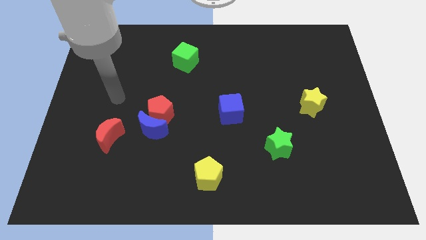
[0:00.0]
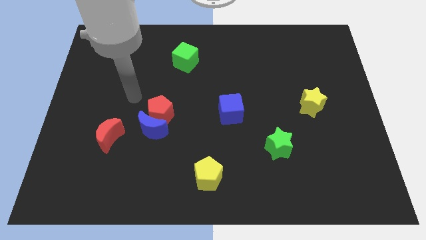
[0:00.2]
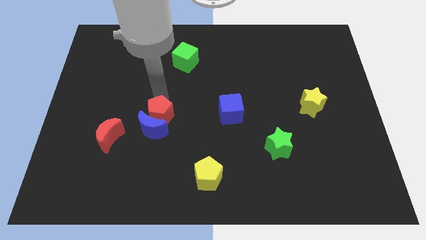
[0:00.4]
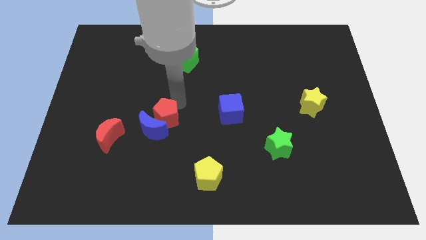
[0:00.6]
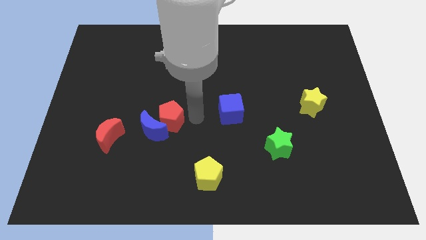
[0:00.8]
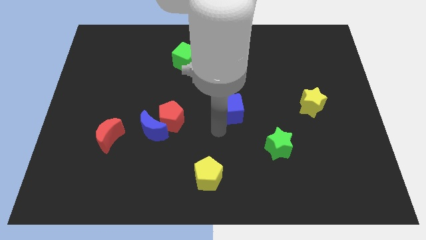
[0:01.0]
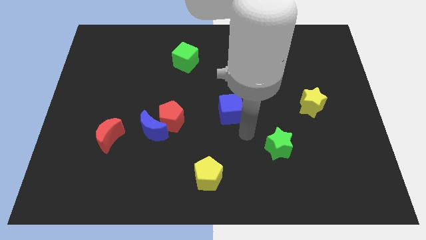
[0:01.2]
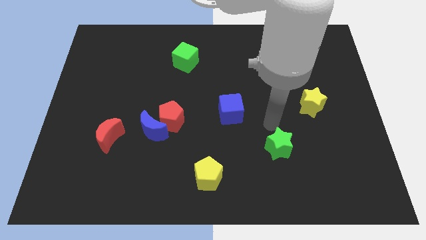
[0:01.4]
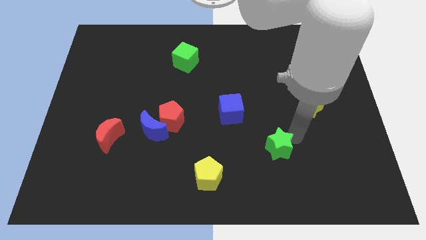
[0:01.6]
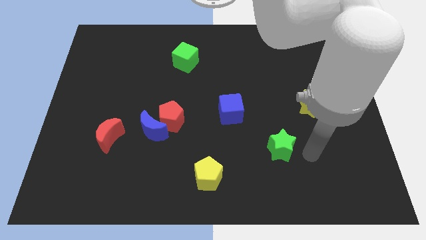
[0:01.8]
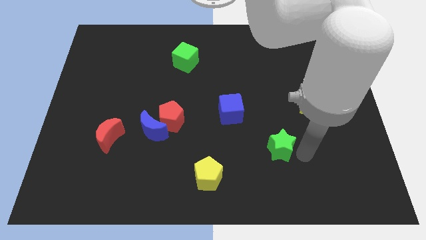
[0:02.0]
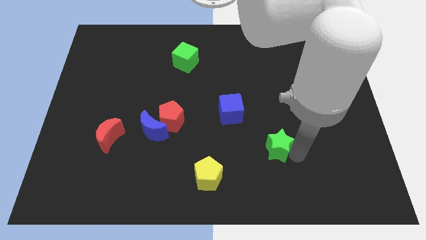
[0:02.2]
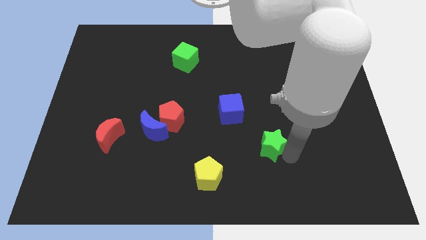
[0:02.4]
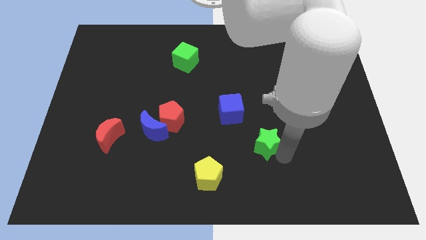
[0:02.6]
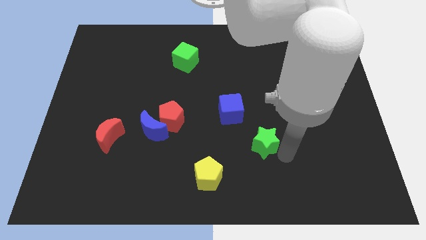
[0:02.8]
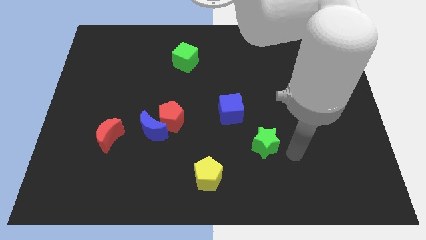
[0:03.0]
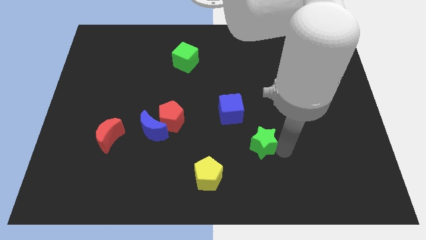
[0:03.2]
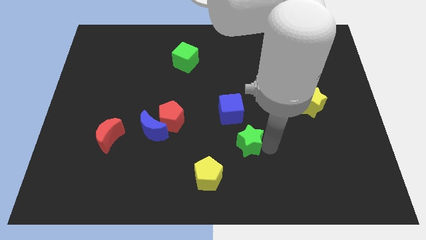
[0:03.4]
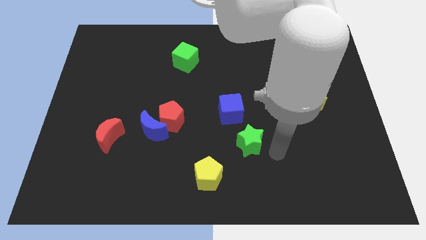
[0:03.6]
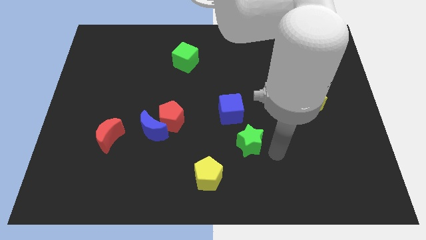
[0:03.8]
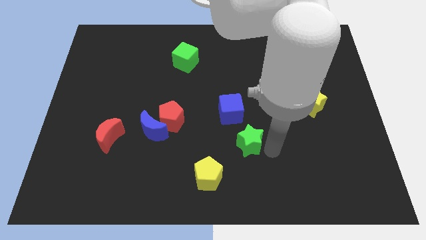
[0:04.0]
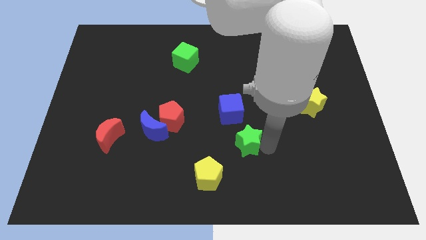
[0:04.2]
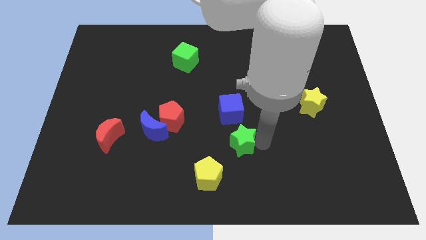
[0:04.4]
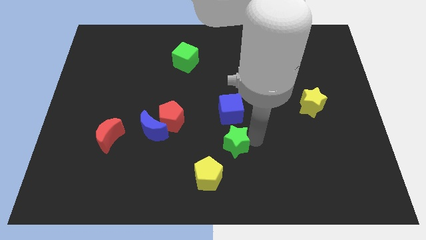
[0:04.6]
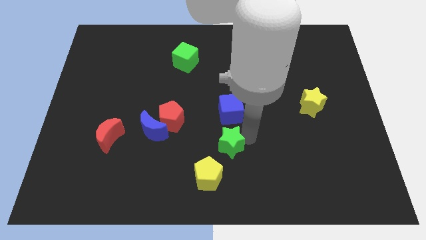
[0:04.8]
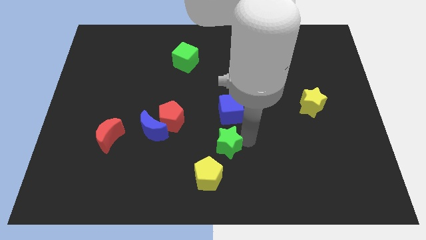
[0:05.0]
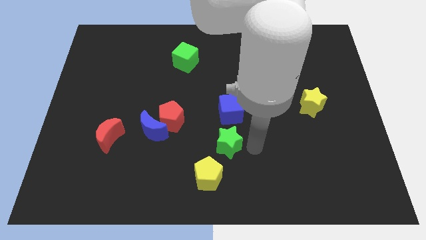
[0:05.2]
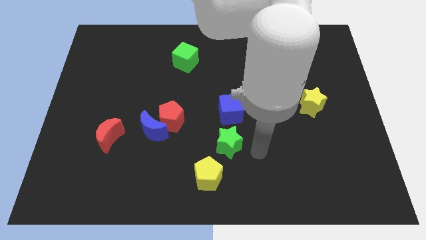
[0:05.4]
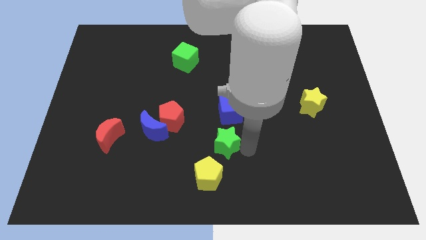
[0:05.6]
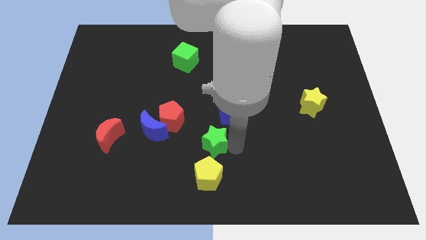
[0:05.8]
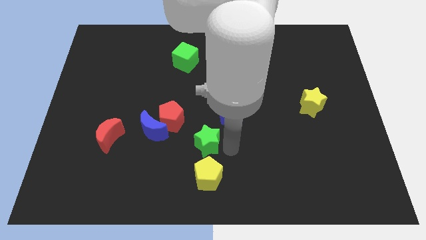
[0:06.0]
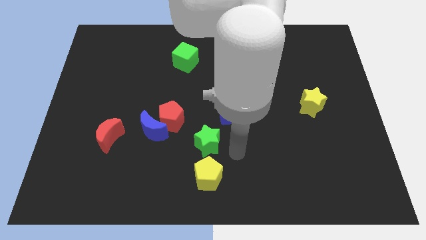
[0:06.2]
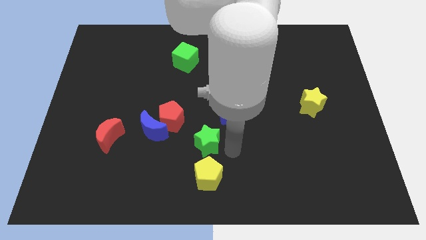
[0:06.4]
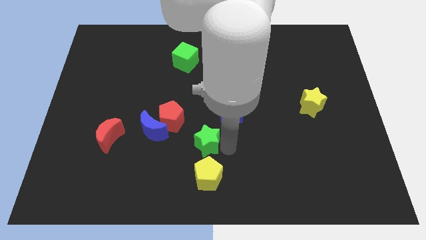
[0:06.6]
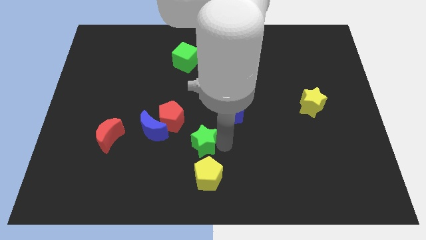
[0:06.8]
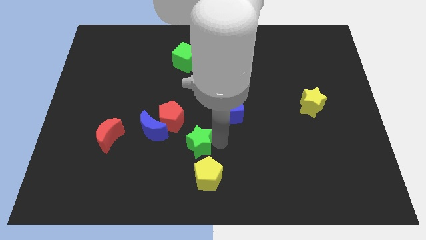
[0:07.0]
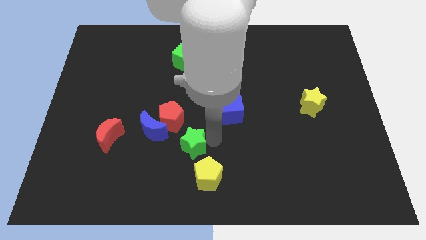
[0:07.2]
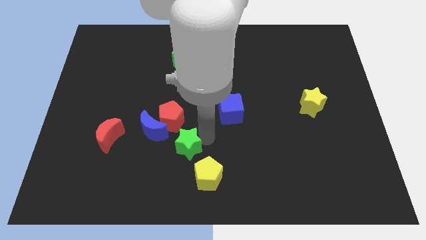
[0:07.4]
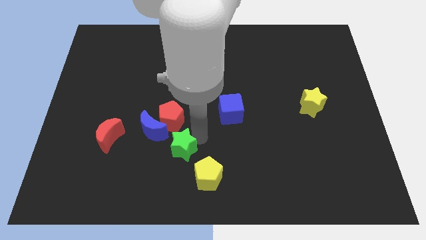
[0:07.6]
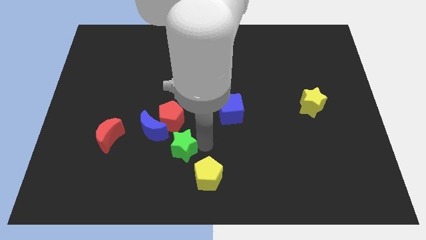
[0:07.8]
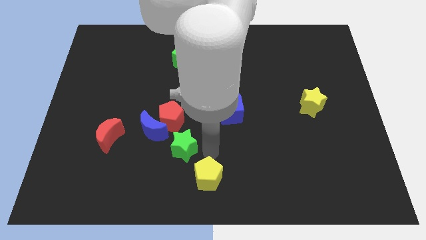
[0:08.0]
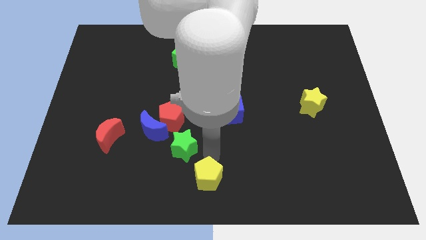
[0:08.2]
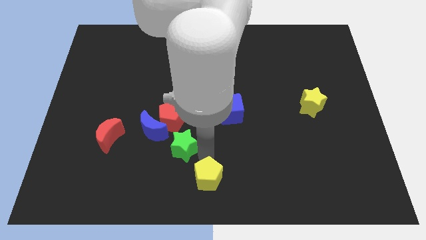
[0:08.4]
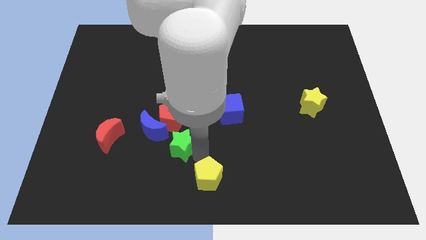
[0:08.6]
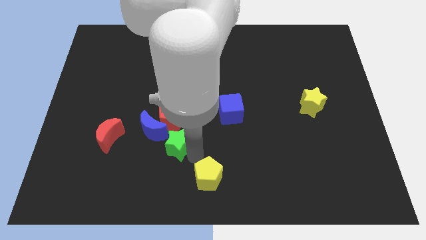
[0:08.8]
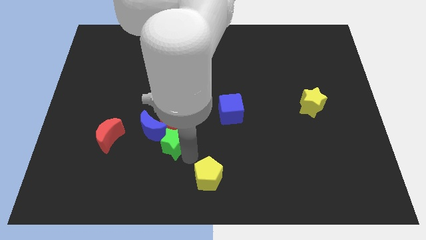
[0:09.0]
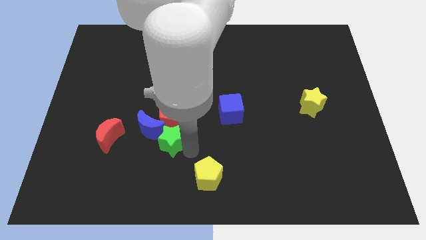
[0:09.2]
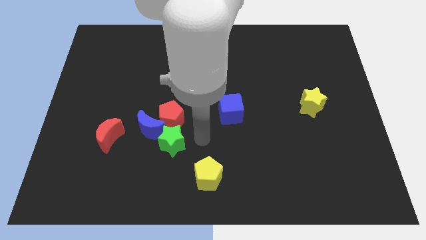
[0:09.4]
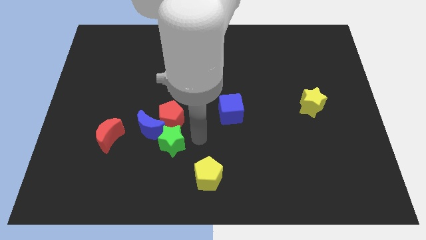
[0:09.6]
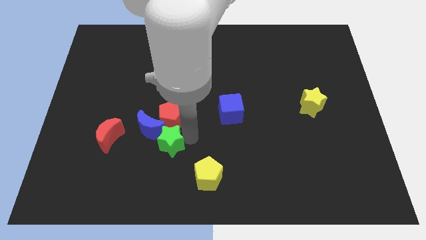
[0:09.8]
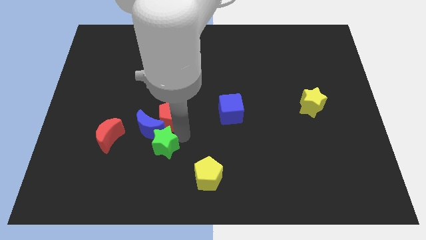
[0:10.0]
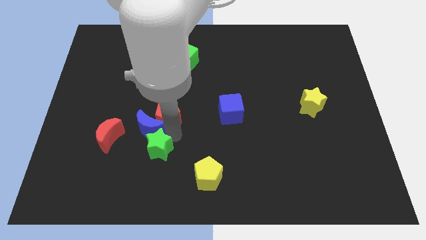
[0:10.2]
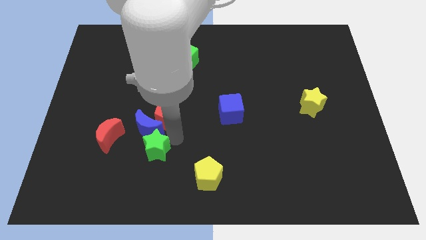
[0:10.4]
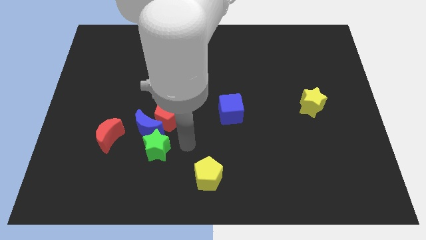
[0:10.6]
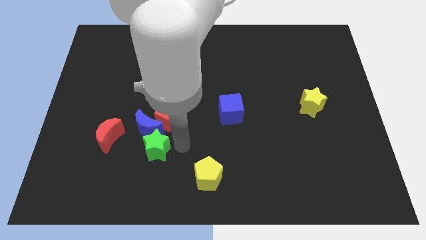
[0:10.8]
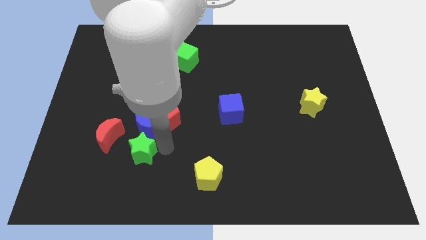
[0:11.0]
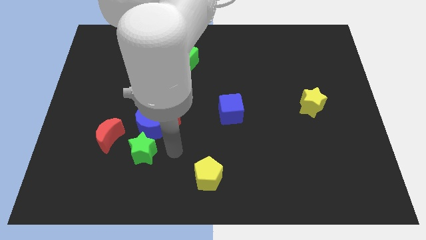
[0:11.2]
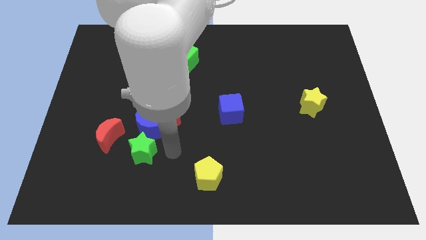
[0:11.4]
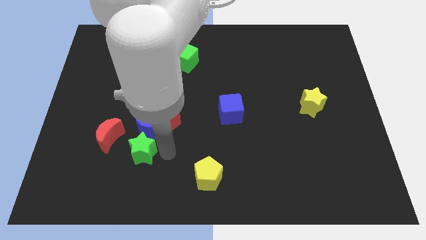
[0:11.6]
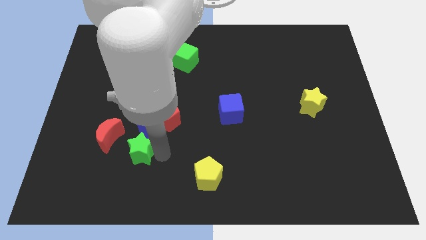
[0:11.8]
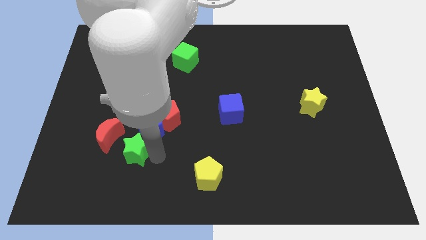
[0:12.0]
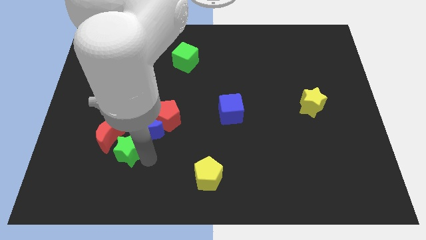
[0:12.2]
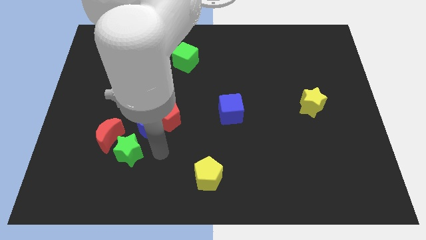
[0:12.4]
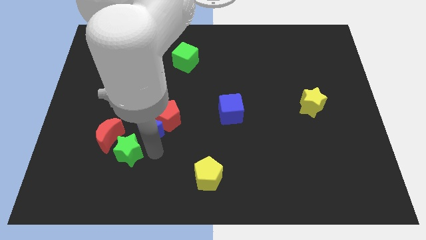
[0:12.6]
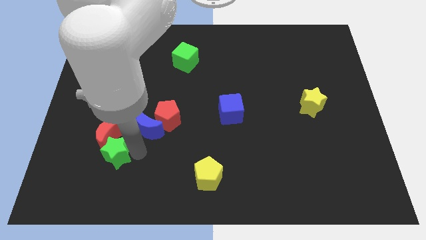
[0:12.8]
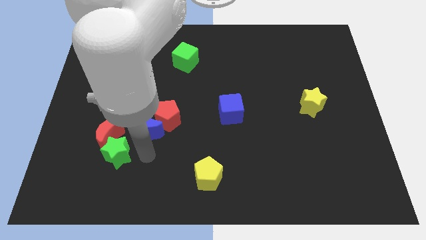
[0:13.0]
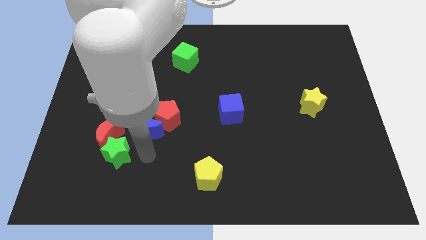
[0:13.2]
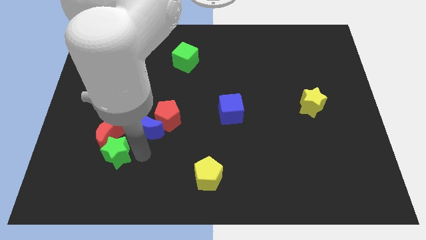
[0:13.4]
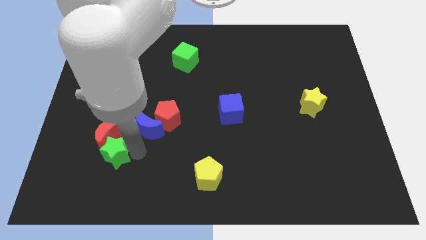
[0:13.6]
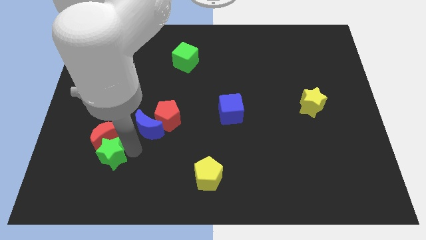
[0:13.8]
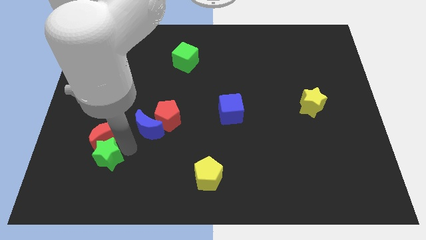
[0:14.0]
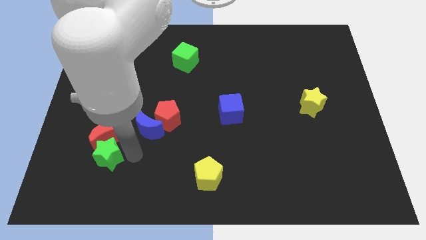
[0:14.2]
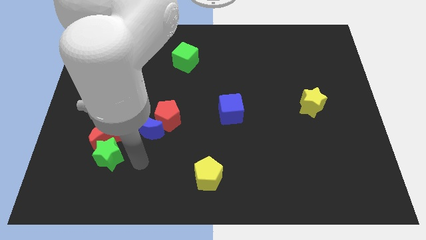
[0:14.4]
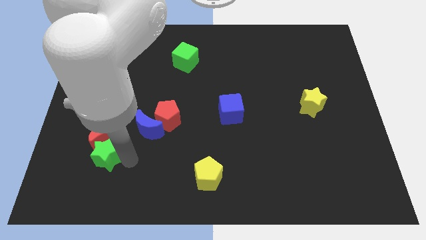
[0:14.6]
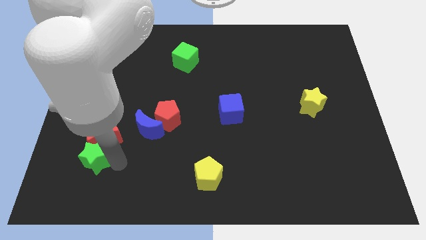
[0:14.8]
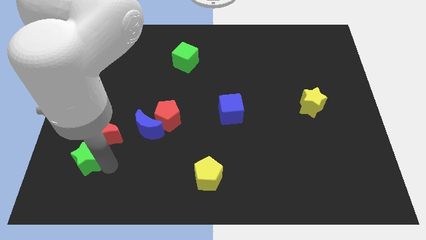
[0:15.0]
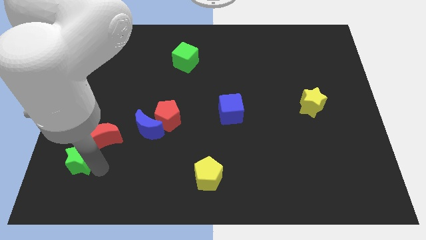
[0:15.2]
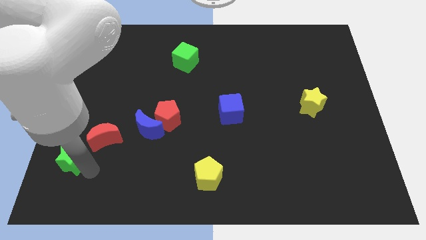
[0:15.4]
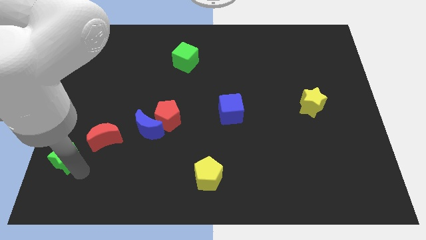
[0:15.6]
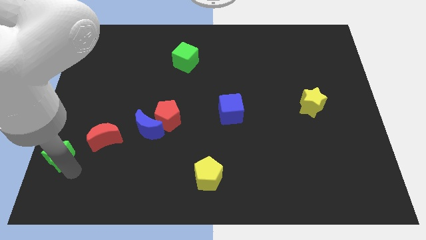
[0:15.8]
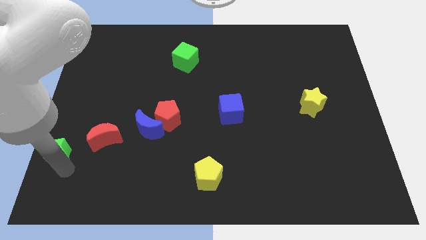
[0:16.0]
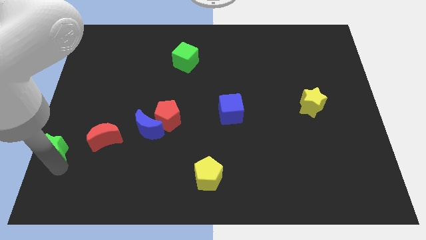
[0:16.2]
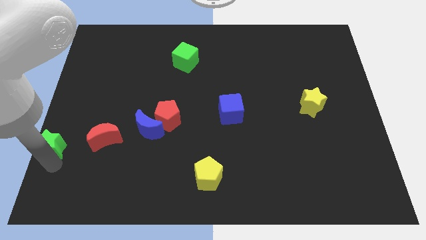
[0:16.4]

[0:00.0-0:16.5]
move the green star to the center left
